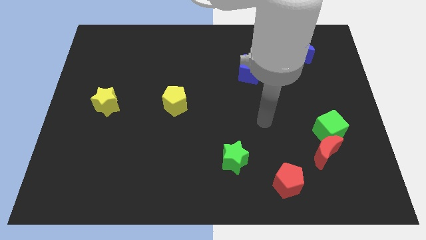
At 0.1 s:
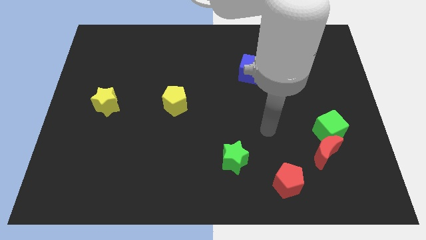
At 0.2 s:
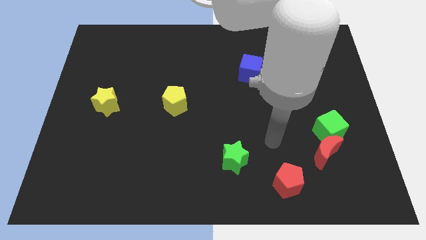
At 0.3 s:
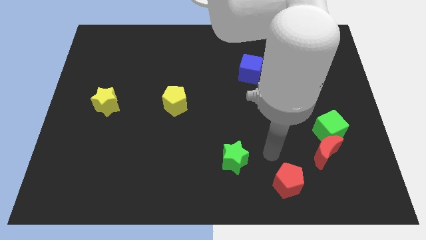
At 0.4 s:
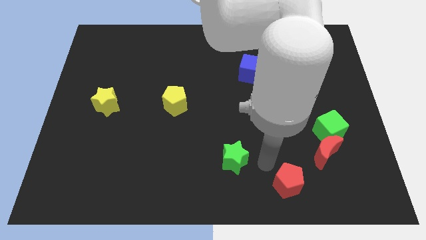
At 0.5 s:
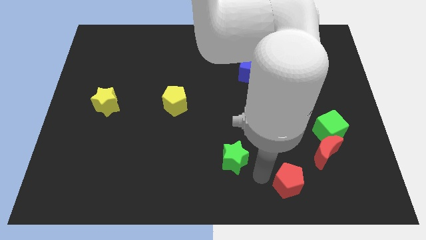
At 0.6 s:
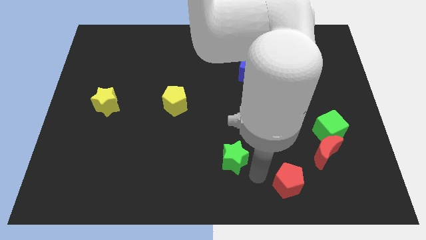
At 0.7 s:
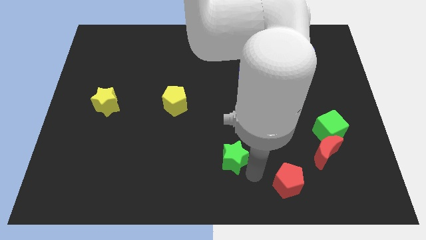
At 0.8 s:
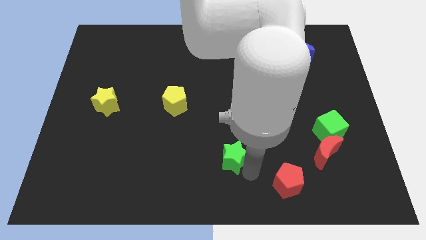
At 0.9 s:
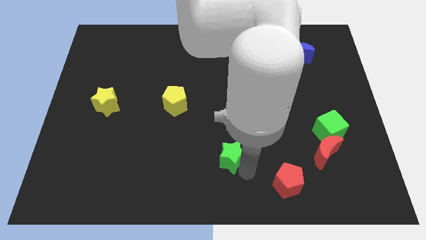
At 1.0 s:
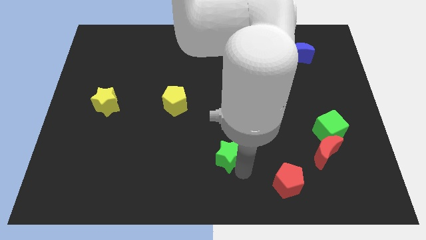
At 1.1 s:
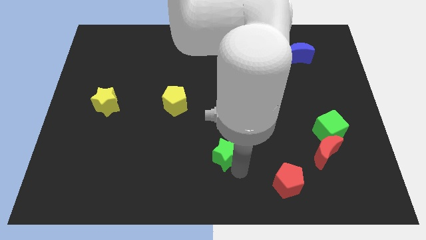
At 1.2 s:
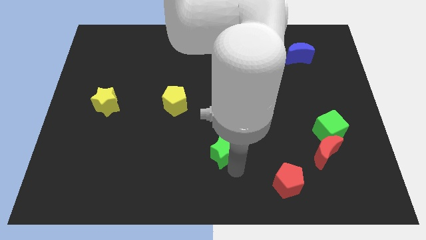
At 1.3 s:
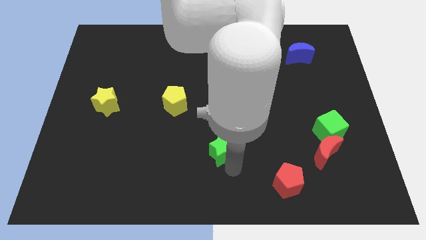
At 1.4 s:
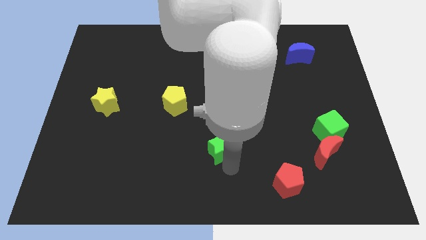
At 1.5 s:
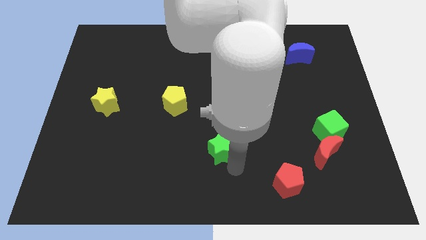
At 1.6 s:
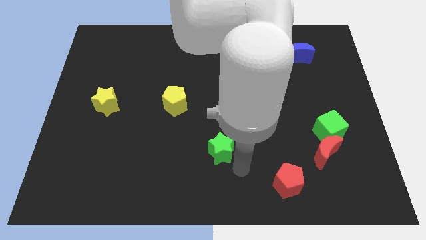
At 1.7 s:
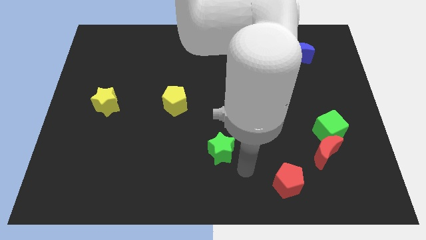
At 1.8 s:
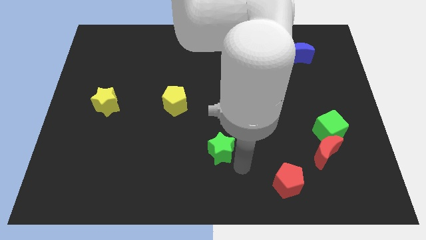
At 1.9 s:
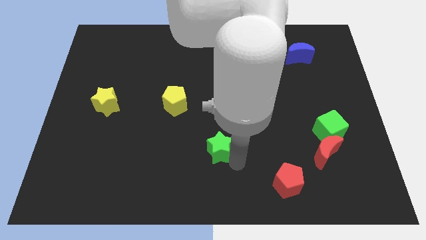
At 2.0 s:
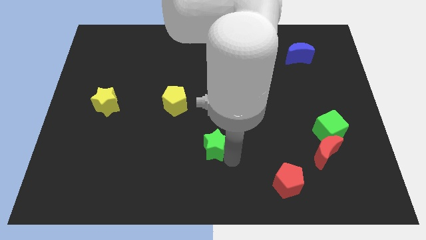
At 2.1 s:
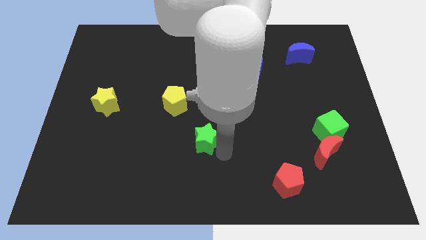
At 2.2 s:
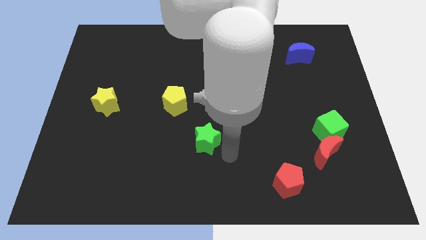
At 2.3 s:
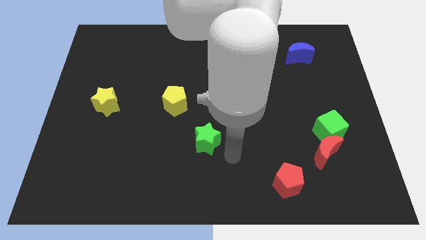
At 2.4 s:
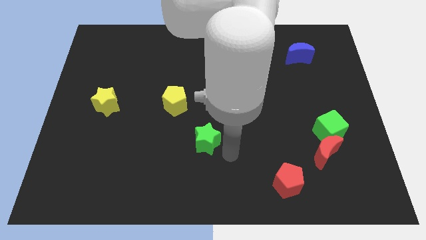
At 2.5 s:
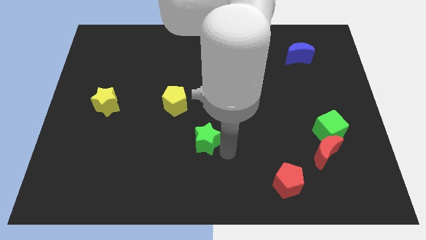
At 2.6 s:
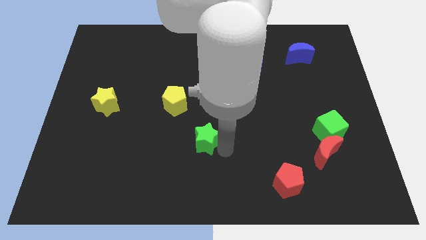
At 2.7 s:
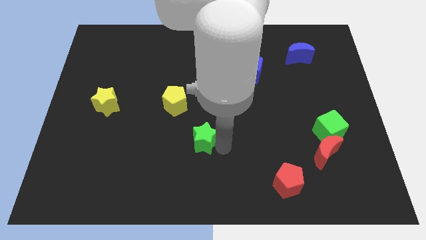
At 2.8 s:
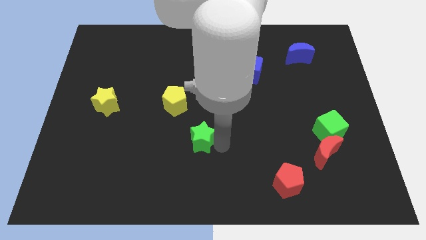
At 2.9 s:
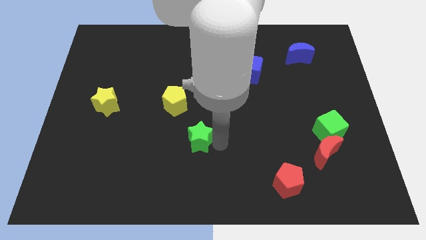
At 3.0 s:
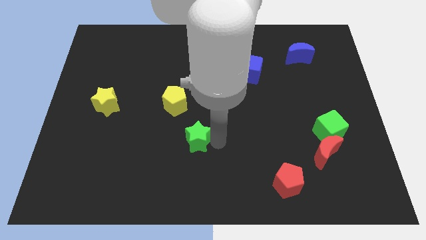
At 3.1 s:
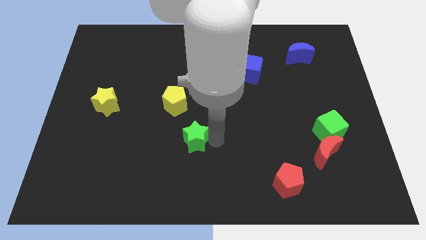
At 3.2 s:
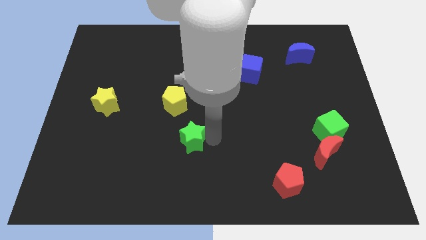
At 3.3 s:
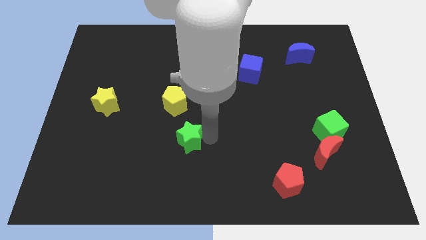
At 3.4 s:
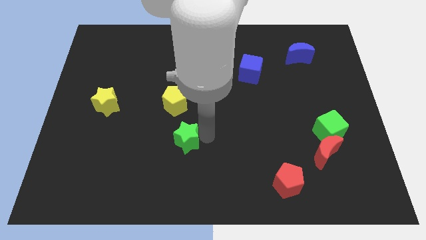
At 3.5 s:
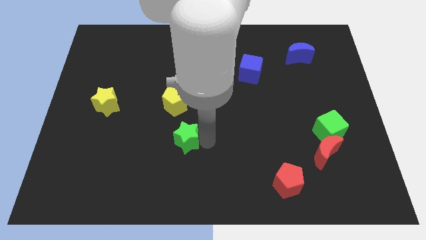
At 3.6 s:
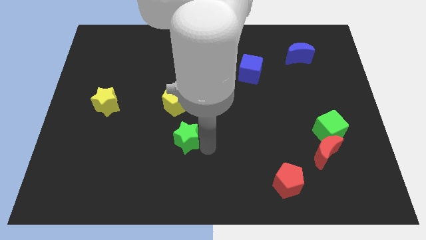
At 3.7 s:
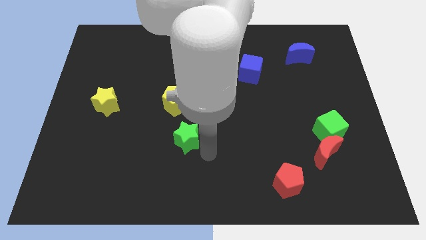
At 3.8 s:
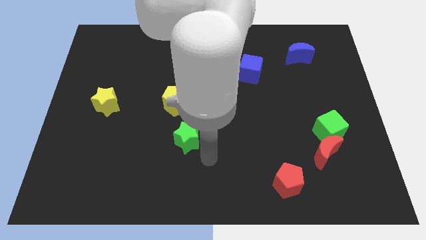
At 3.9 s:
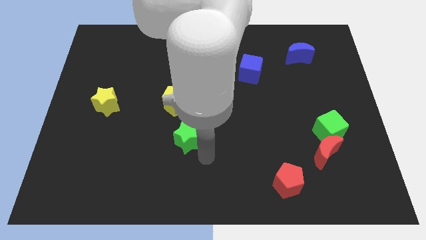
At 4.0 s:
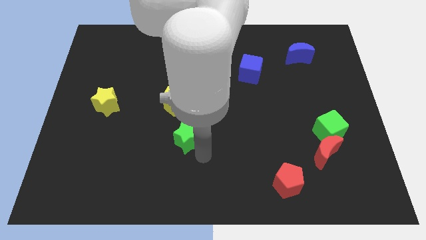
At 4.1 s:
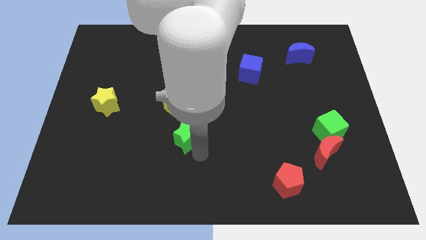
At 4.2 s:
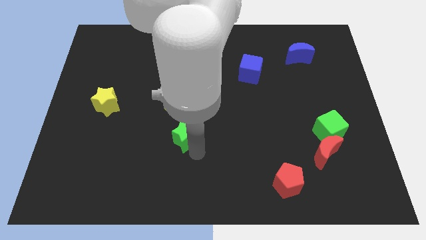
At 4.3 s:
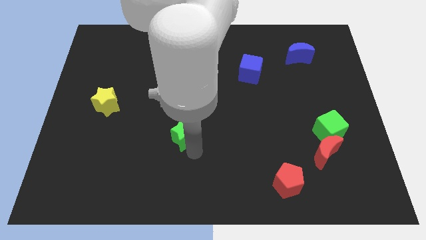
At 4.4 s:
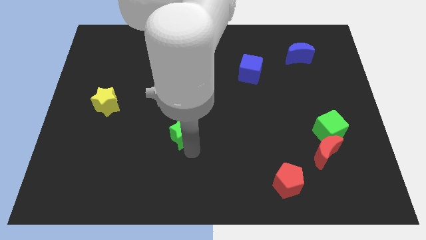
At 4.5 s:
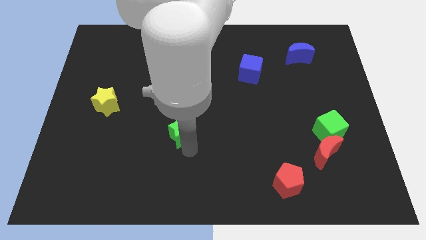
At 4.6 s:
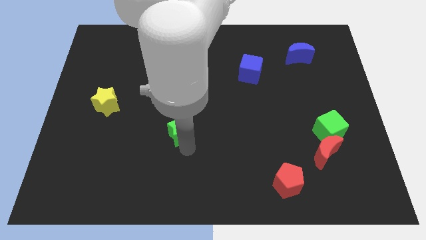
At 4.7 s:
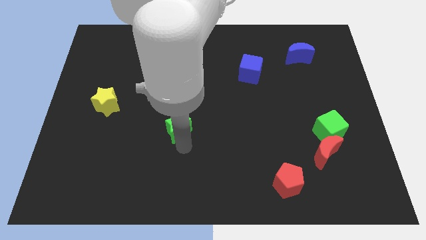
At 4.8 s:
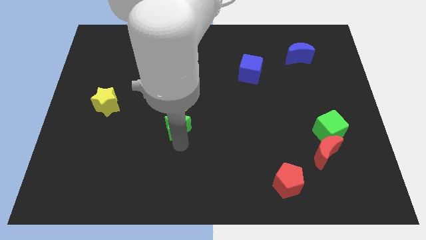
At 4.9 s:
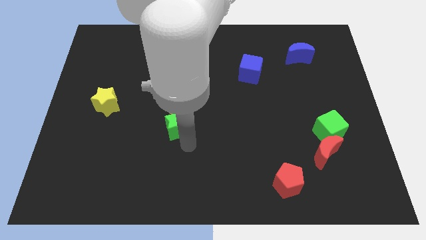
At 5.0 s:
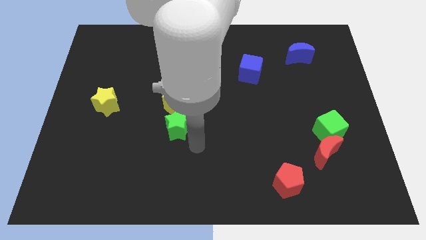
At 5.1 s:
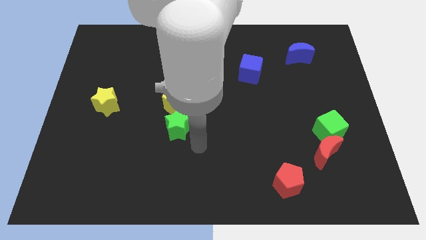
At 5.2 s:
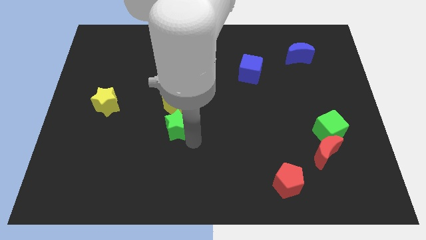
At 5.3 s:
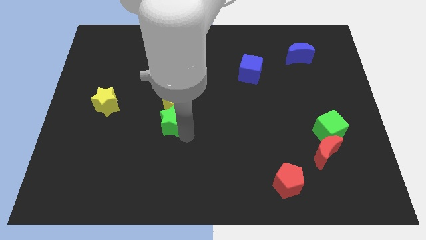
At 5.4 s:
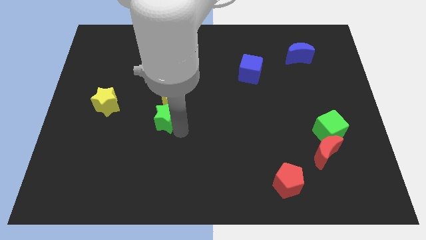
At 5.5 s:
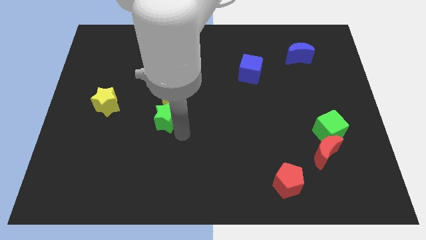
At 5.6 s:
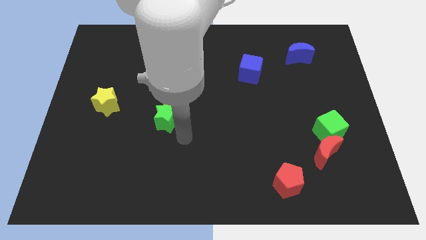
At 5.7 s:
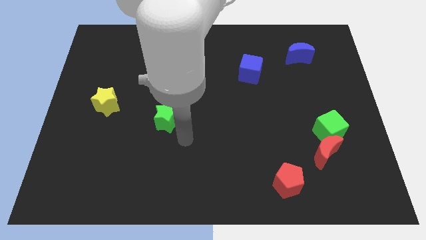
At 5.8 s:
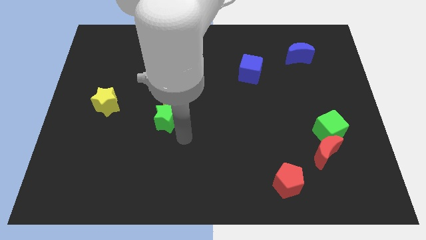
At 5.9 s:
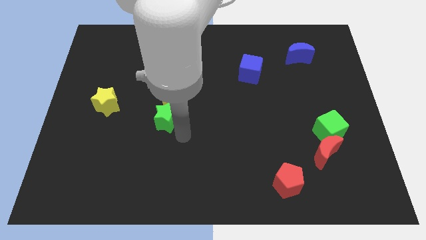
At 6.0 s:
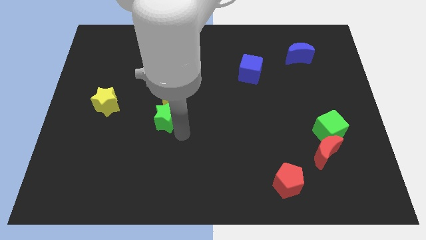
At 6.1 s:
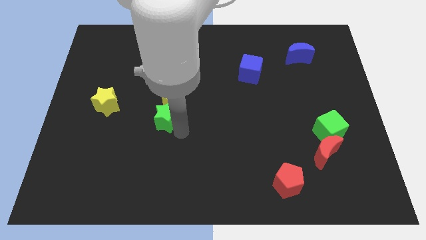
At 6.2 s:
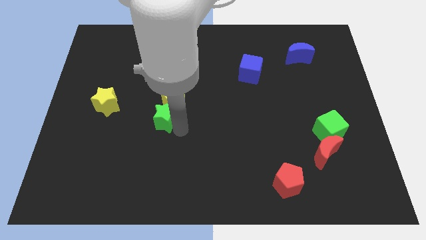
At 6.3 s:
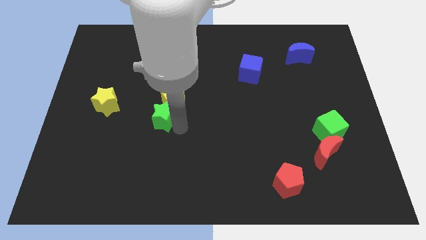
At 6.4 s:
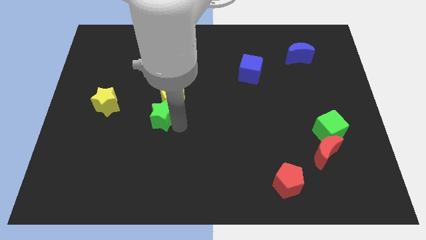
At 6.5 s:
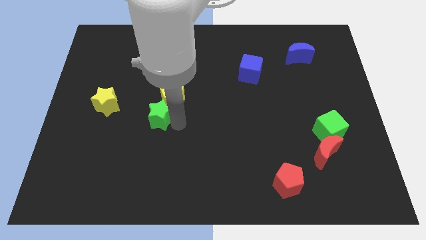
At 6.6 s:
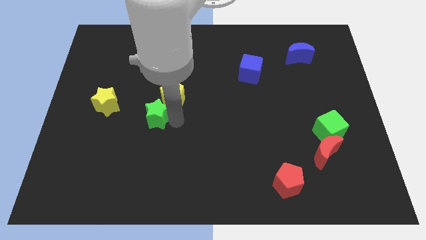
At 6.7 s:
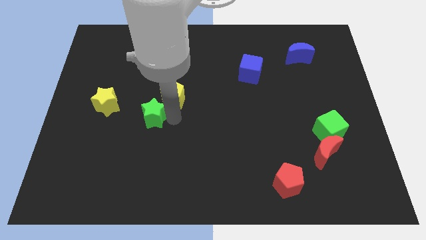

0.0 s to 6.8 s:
slide the green star upwards and to the left

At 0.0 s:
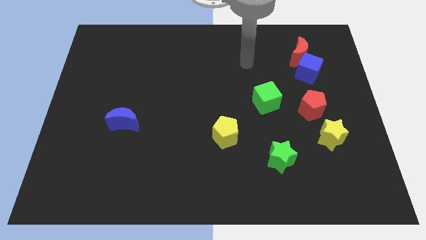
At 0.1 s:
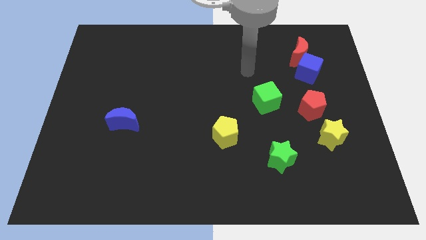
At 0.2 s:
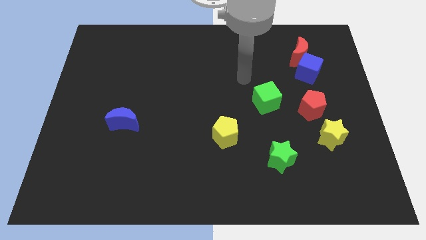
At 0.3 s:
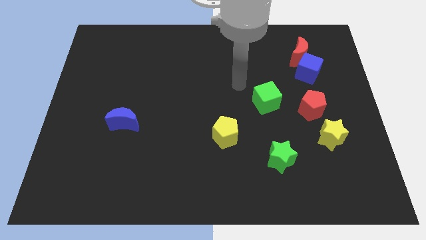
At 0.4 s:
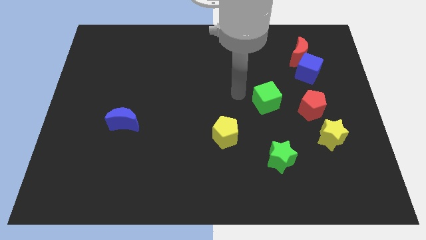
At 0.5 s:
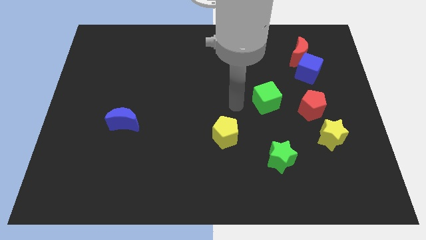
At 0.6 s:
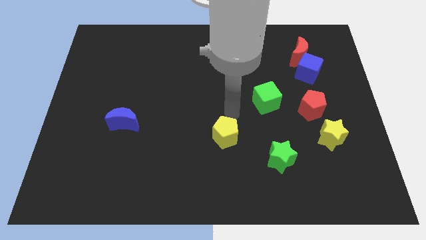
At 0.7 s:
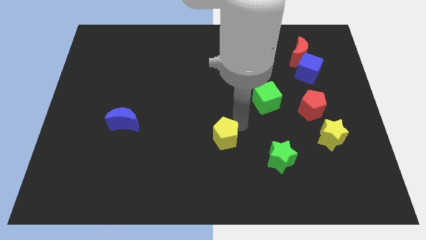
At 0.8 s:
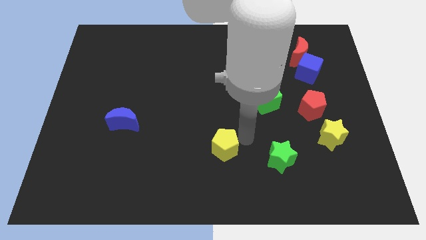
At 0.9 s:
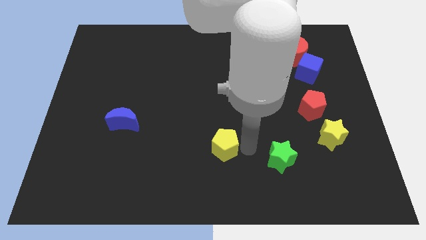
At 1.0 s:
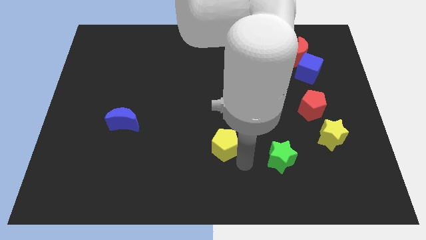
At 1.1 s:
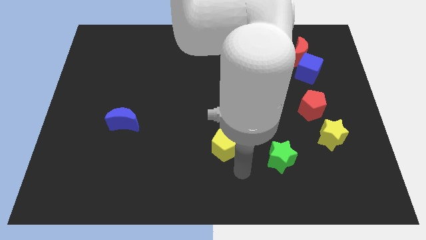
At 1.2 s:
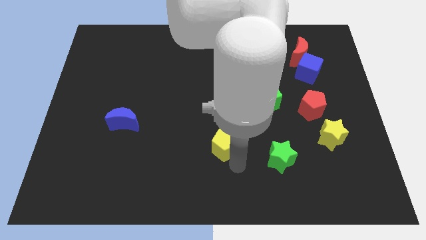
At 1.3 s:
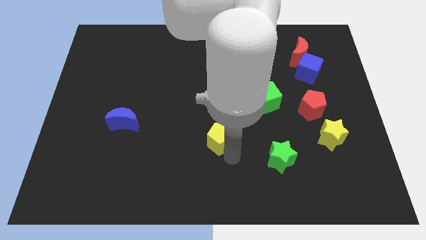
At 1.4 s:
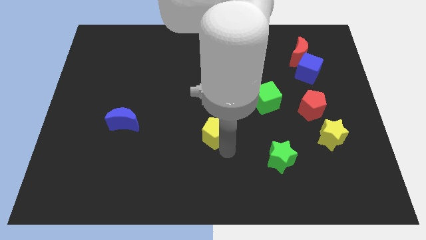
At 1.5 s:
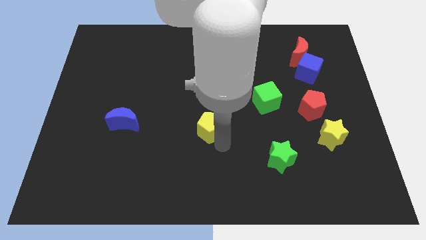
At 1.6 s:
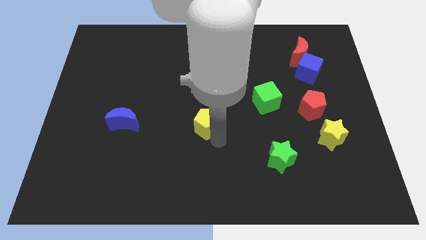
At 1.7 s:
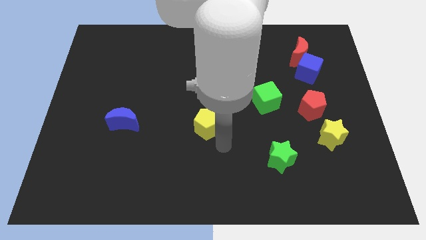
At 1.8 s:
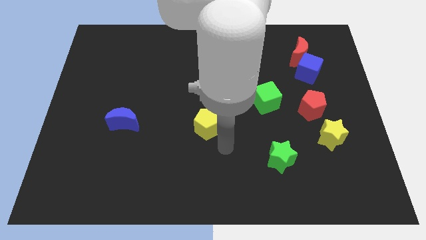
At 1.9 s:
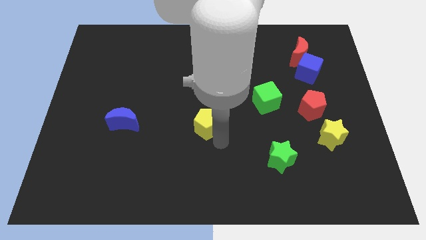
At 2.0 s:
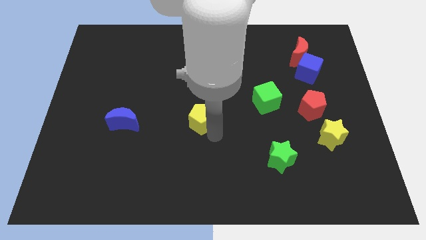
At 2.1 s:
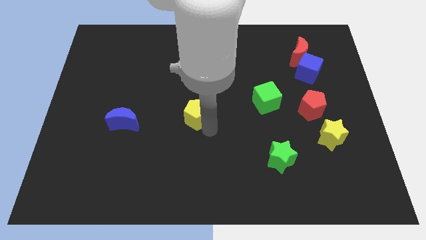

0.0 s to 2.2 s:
slightly push the yellow pentagon diagonally upwards and to the left
